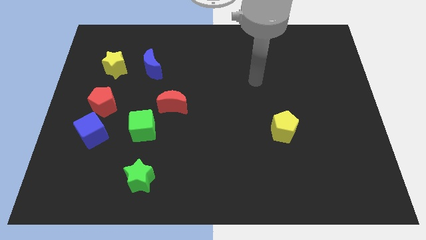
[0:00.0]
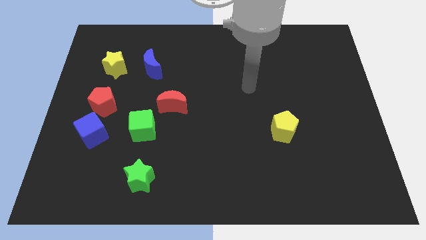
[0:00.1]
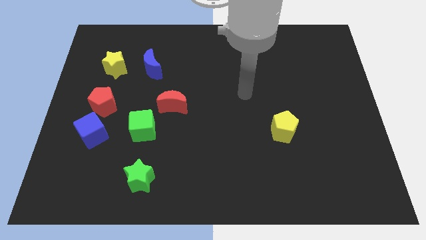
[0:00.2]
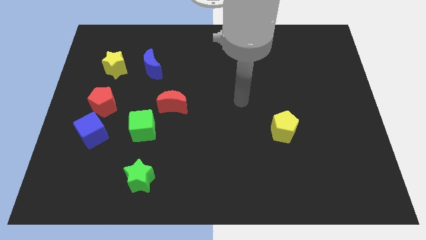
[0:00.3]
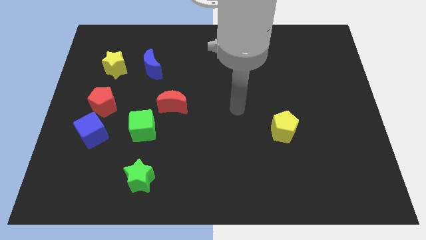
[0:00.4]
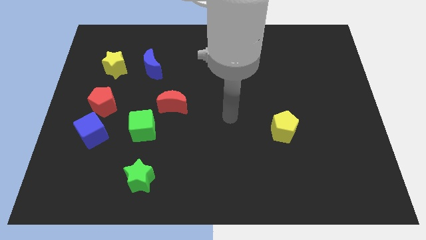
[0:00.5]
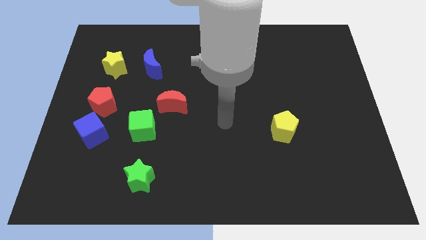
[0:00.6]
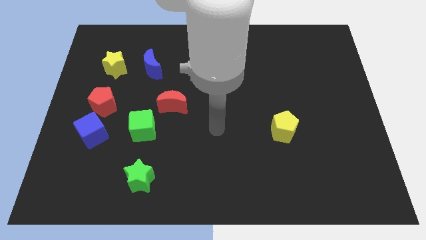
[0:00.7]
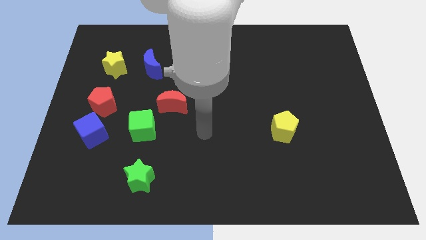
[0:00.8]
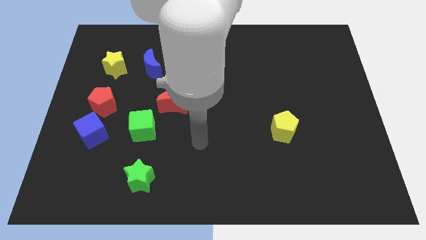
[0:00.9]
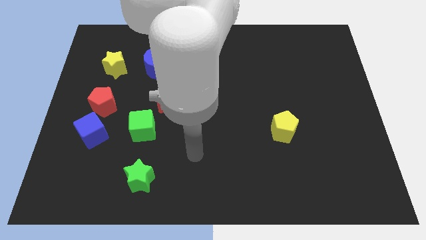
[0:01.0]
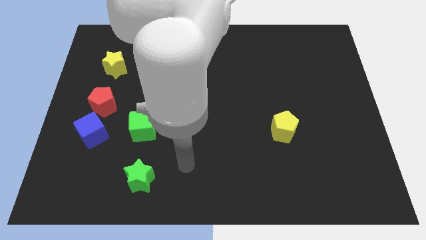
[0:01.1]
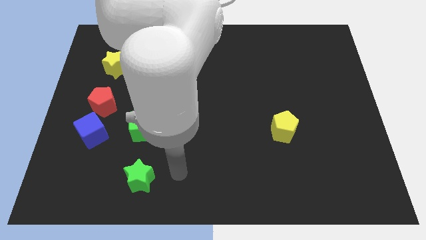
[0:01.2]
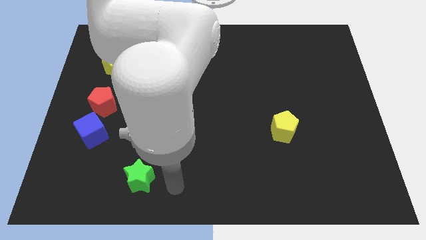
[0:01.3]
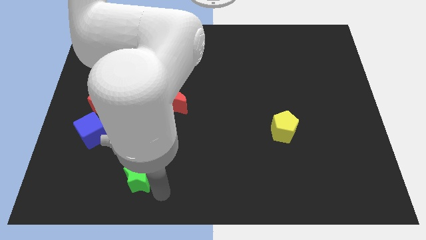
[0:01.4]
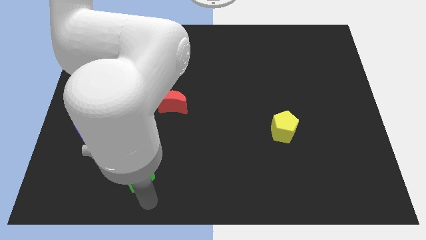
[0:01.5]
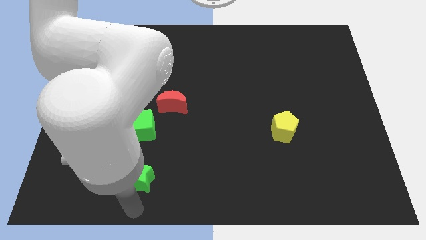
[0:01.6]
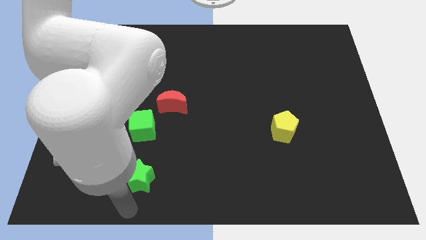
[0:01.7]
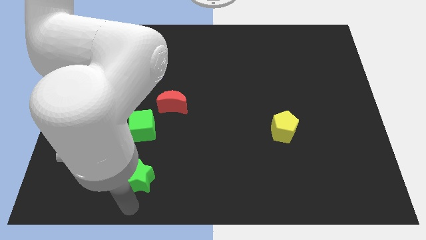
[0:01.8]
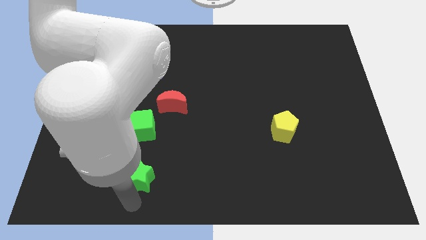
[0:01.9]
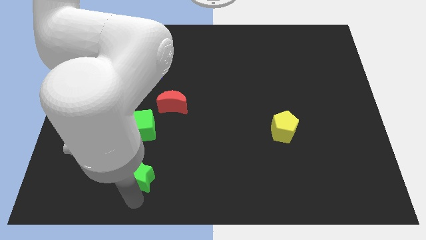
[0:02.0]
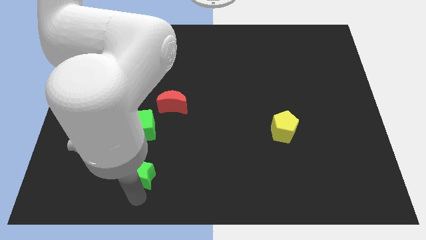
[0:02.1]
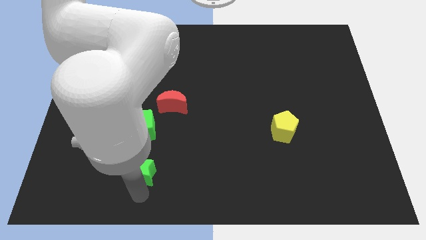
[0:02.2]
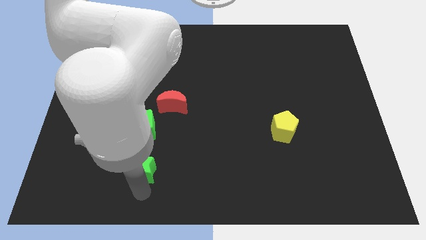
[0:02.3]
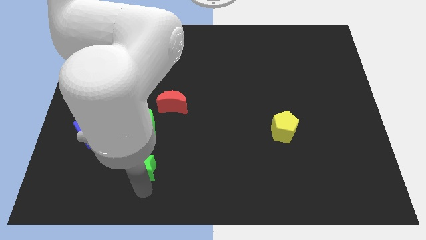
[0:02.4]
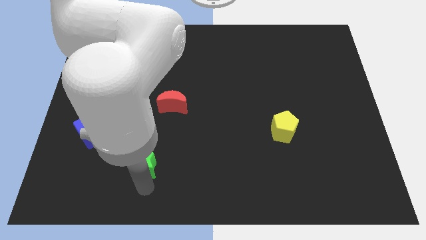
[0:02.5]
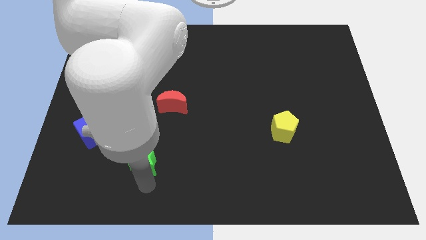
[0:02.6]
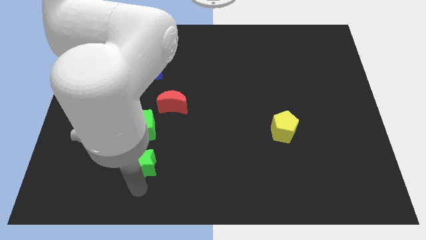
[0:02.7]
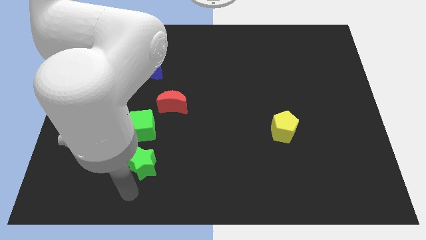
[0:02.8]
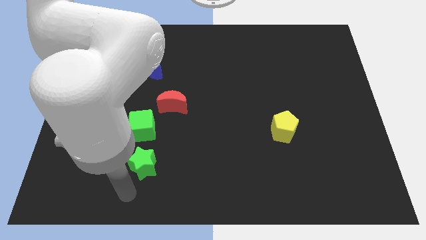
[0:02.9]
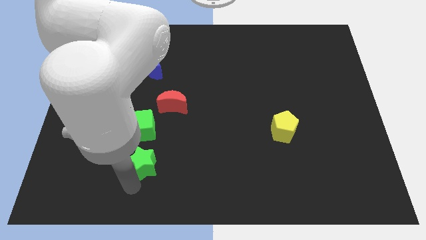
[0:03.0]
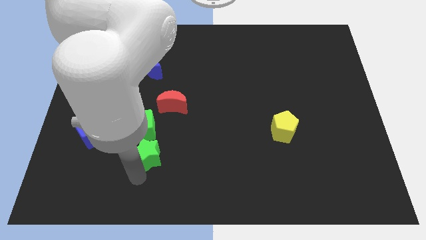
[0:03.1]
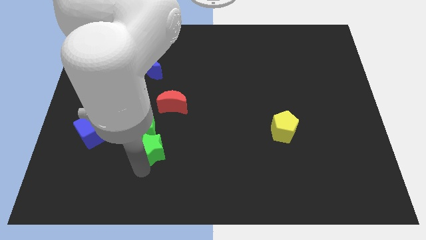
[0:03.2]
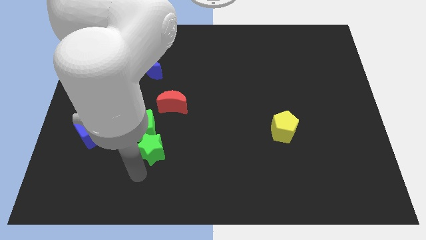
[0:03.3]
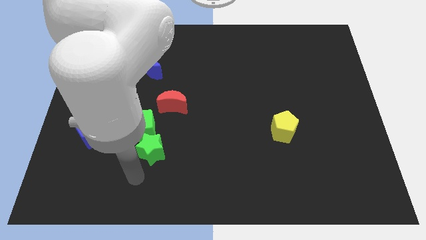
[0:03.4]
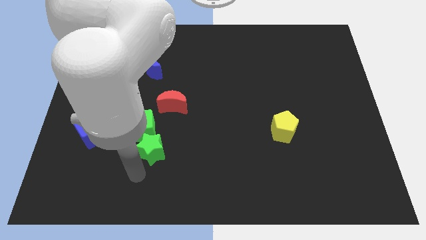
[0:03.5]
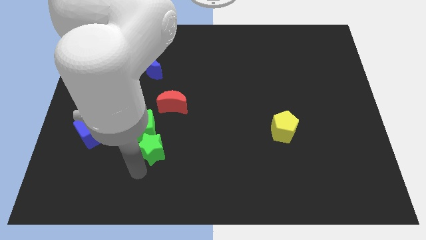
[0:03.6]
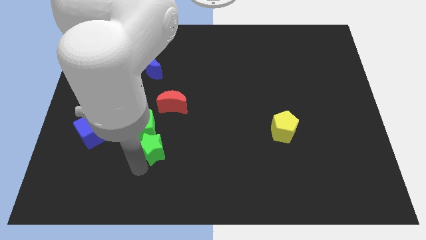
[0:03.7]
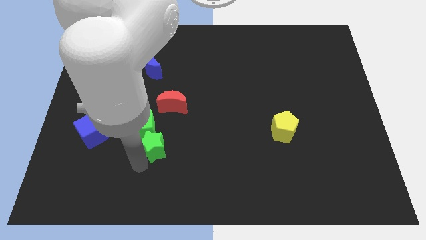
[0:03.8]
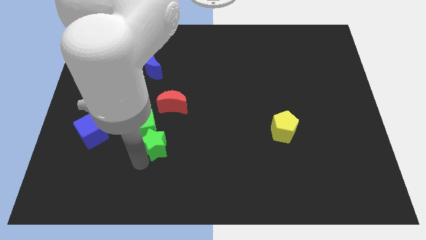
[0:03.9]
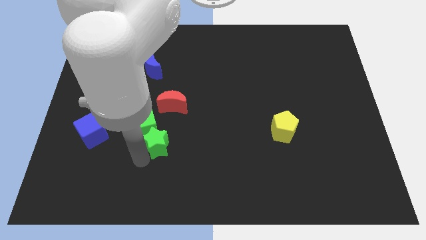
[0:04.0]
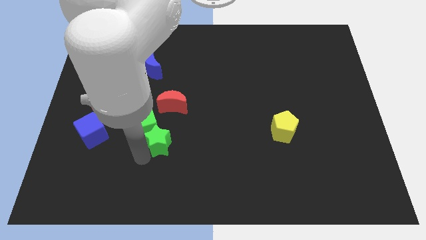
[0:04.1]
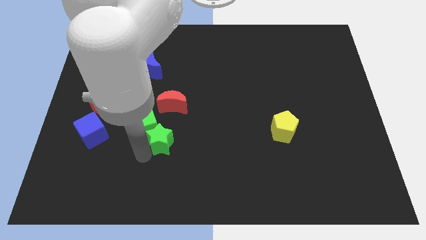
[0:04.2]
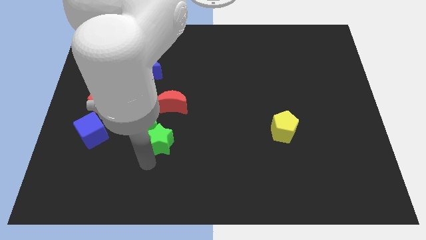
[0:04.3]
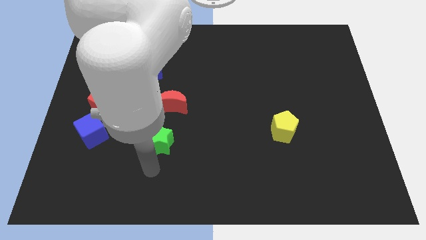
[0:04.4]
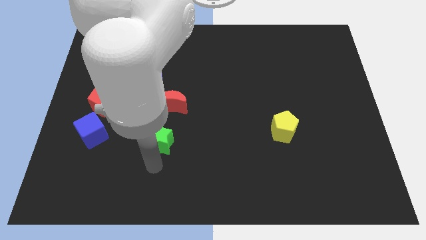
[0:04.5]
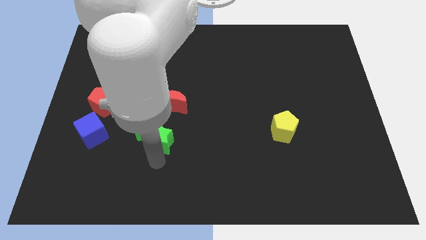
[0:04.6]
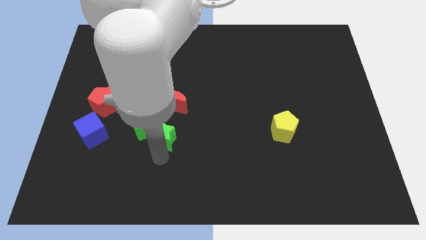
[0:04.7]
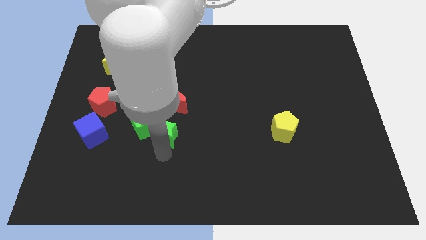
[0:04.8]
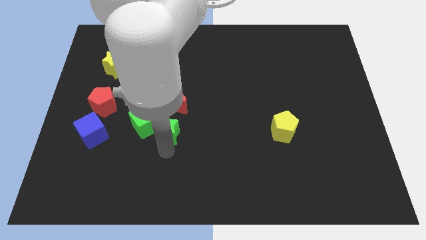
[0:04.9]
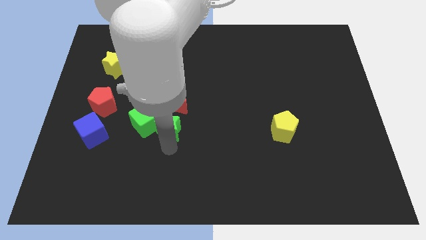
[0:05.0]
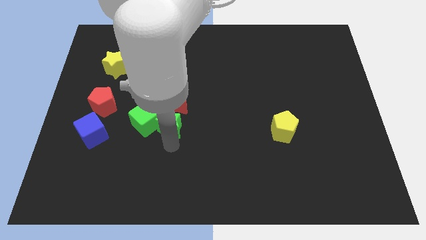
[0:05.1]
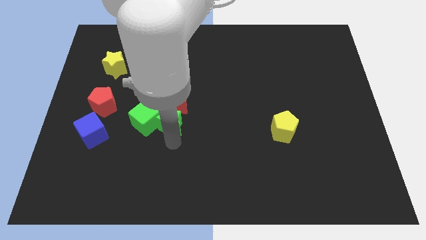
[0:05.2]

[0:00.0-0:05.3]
push the green star towards the red moon

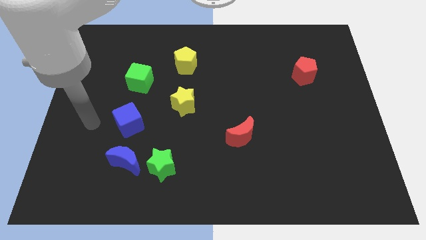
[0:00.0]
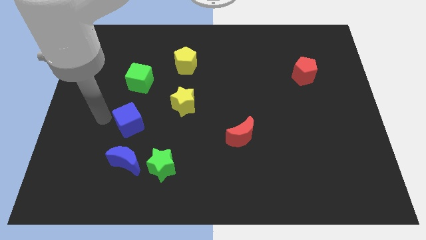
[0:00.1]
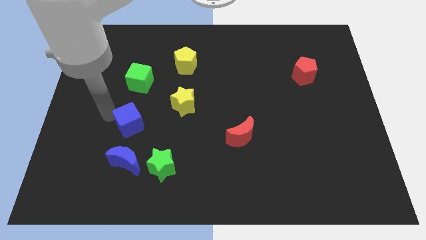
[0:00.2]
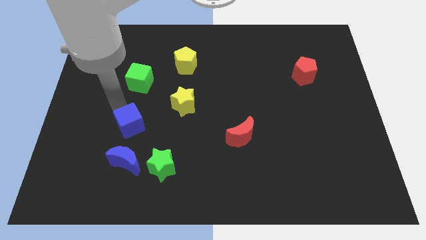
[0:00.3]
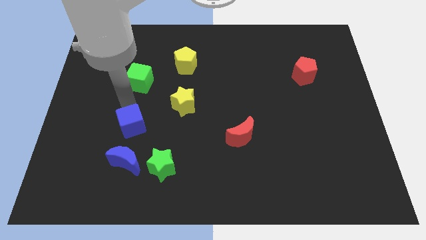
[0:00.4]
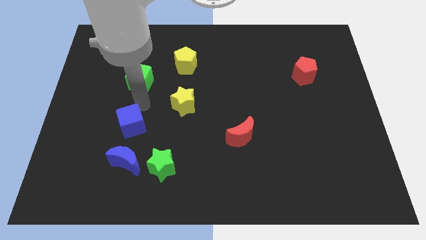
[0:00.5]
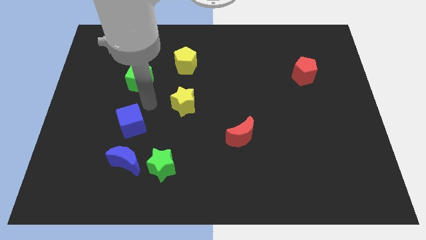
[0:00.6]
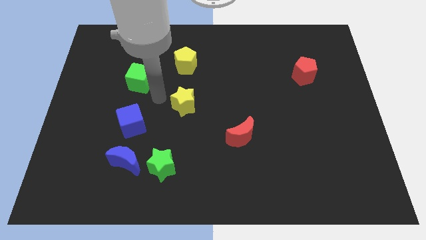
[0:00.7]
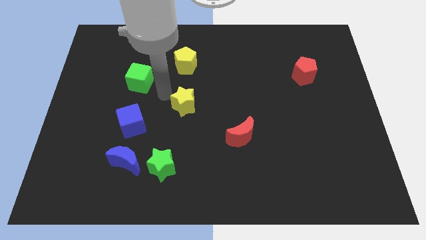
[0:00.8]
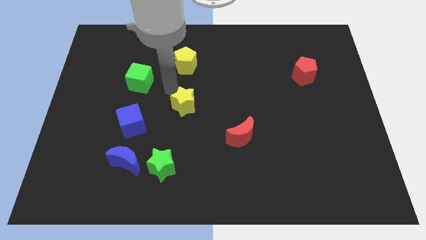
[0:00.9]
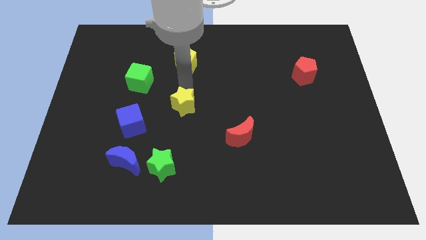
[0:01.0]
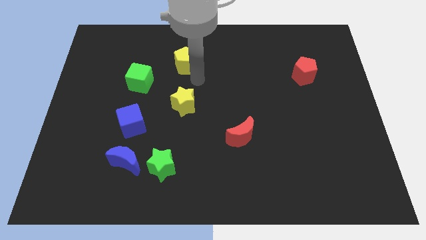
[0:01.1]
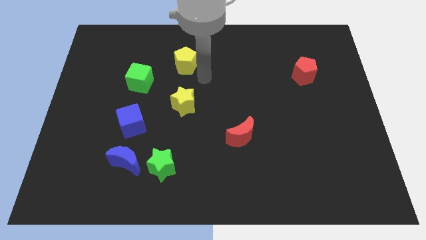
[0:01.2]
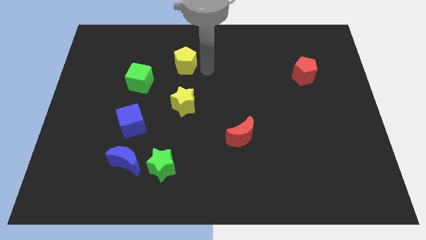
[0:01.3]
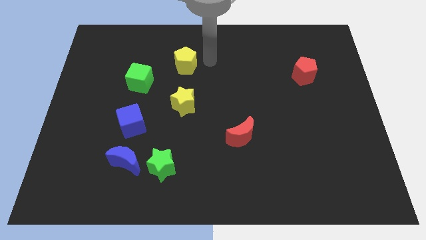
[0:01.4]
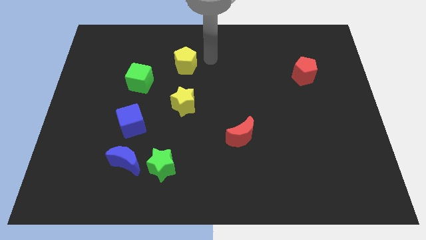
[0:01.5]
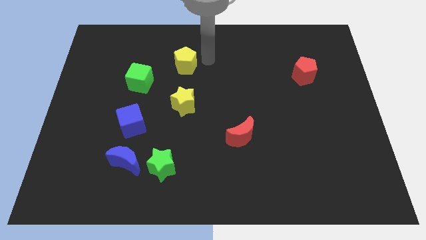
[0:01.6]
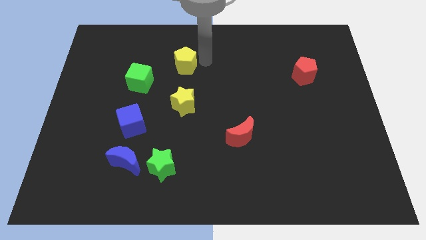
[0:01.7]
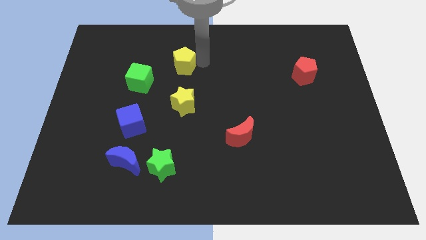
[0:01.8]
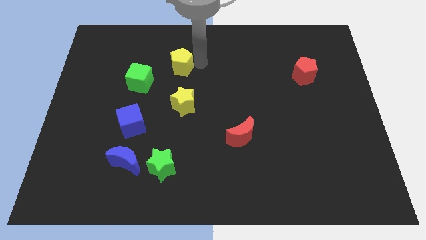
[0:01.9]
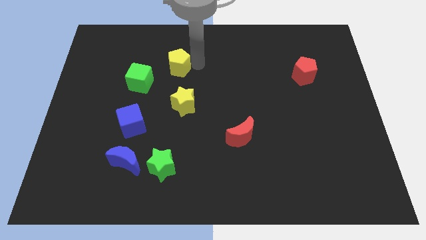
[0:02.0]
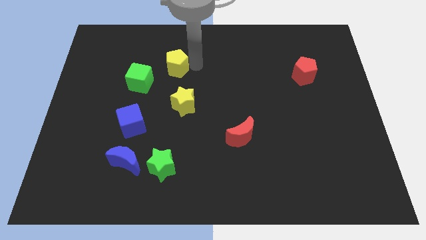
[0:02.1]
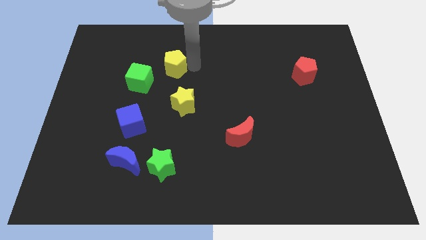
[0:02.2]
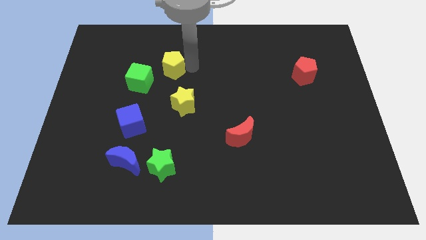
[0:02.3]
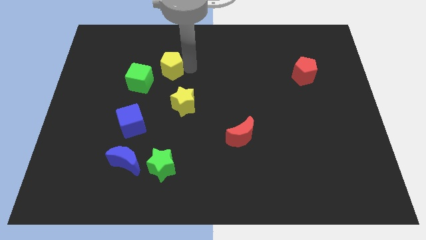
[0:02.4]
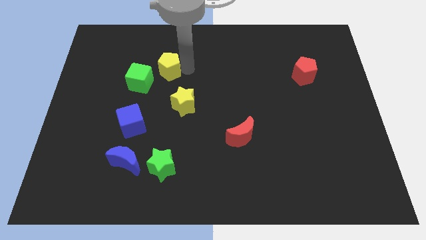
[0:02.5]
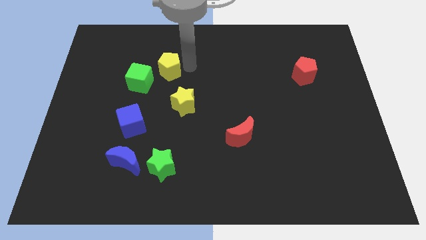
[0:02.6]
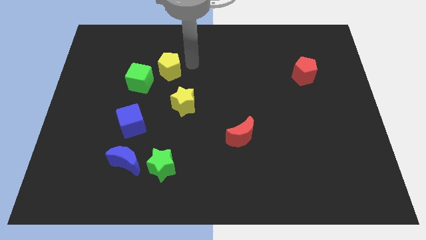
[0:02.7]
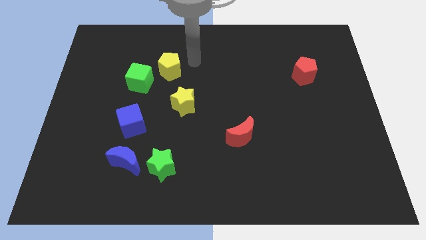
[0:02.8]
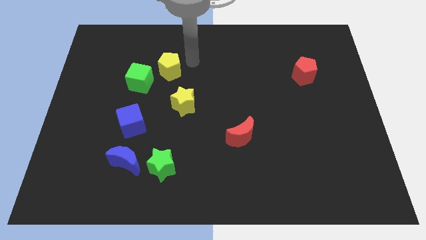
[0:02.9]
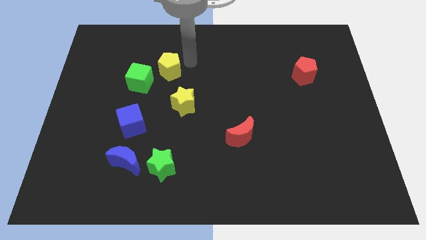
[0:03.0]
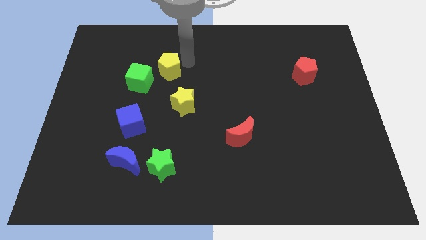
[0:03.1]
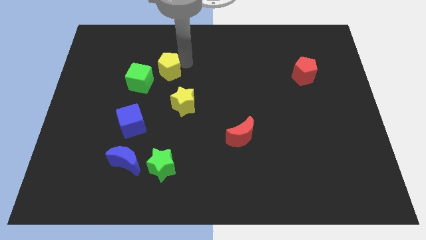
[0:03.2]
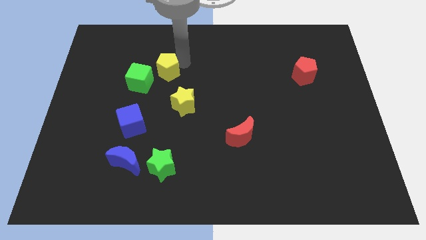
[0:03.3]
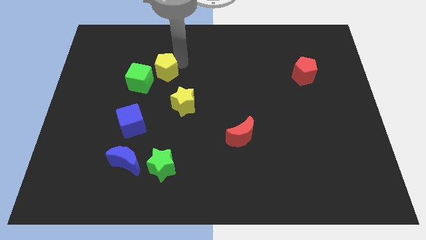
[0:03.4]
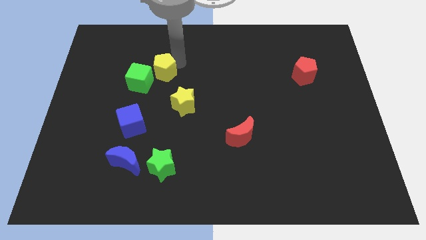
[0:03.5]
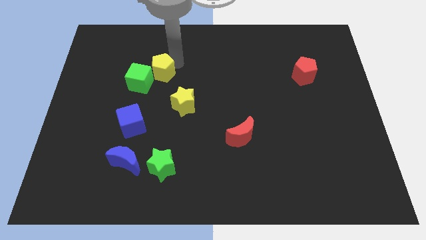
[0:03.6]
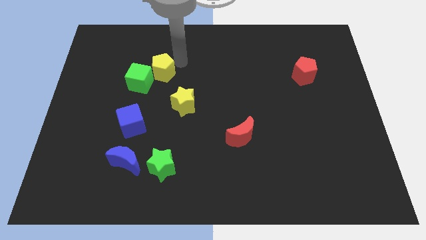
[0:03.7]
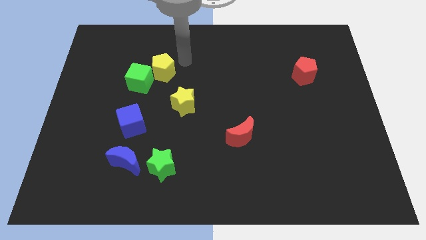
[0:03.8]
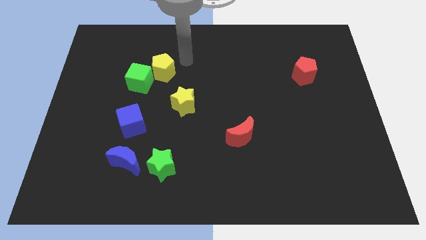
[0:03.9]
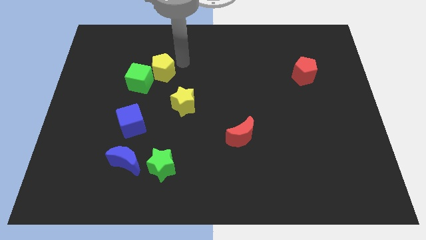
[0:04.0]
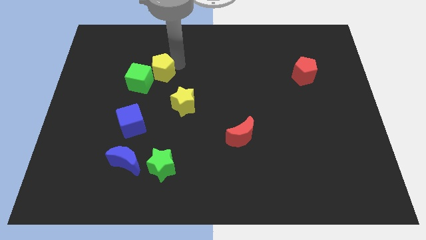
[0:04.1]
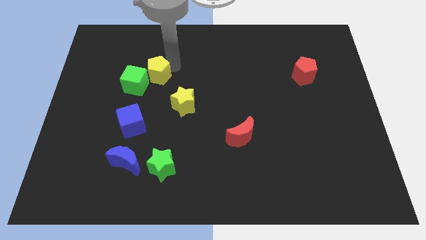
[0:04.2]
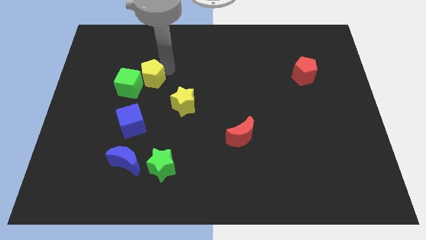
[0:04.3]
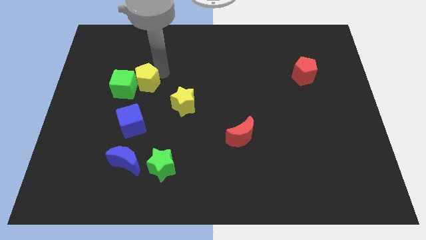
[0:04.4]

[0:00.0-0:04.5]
slide the yellow pentagon next to the green cube
